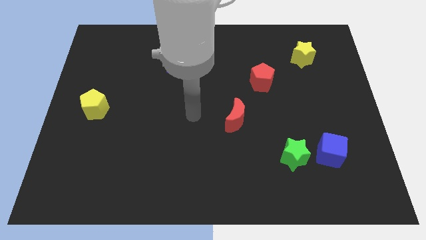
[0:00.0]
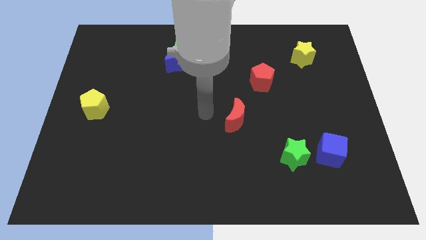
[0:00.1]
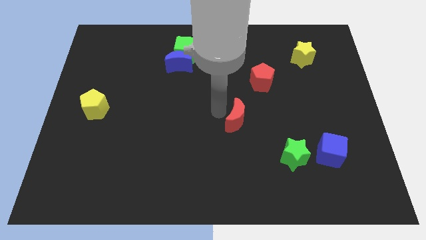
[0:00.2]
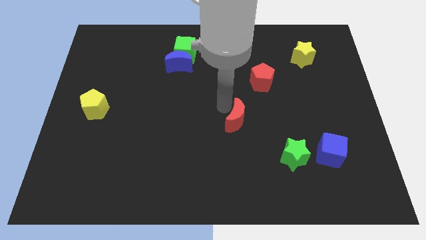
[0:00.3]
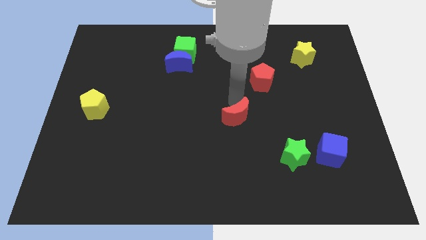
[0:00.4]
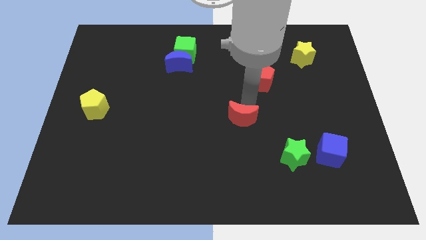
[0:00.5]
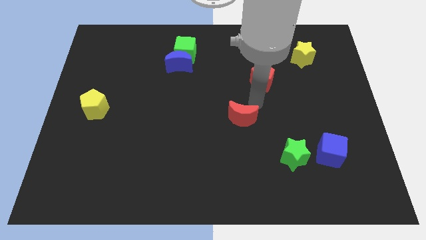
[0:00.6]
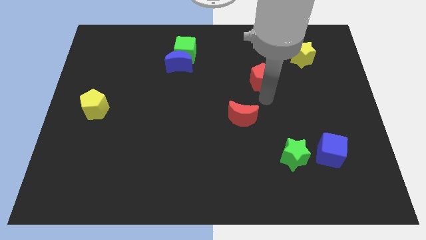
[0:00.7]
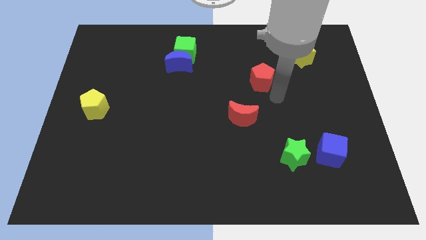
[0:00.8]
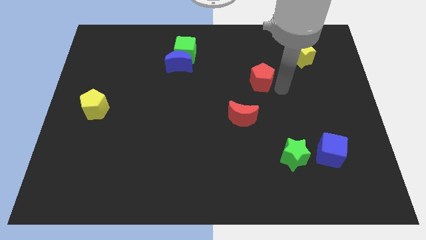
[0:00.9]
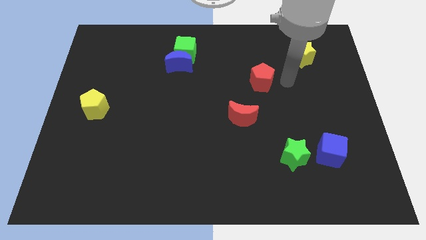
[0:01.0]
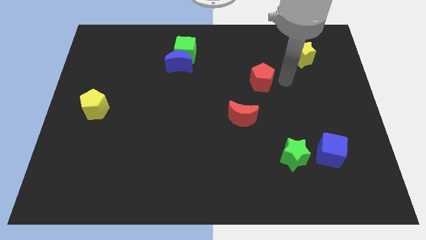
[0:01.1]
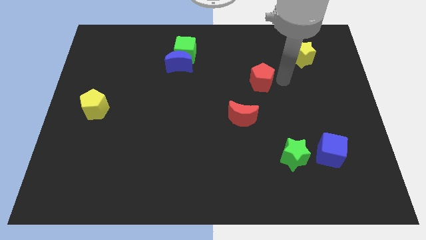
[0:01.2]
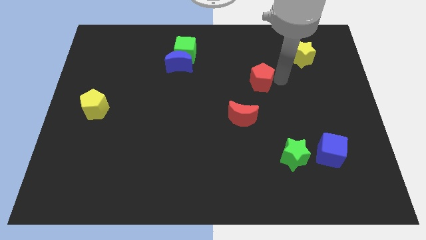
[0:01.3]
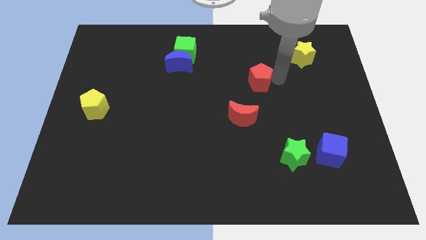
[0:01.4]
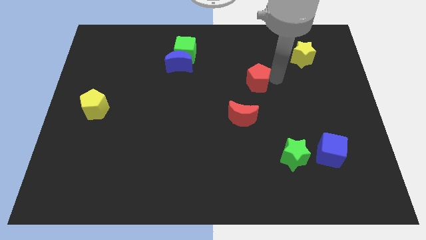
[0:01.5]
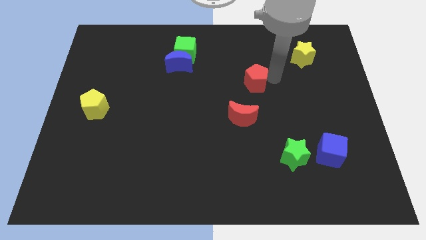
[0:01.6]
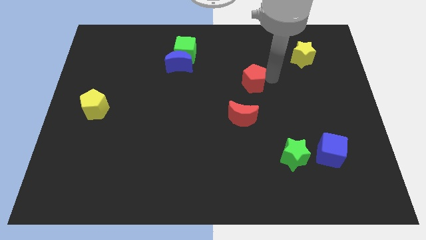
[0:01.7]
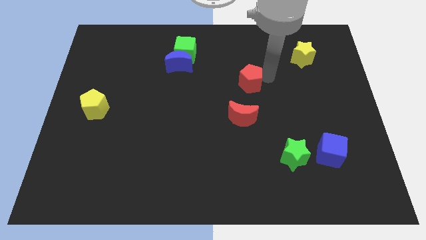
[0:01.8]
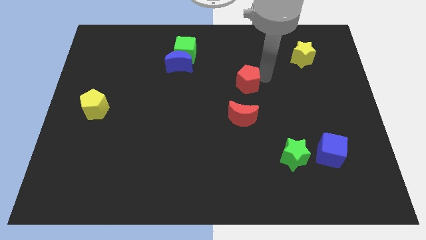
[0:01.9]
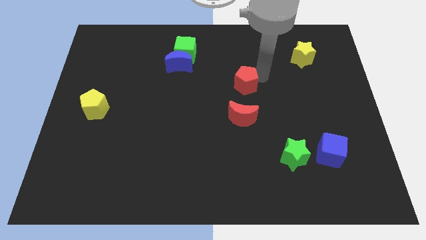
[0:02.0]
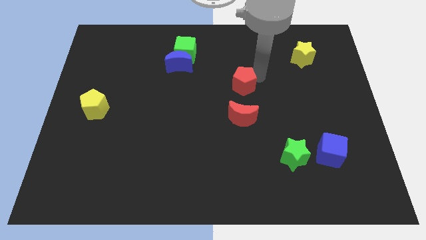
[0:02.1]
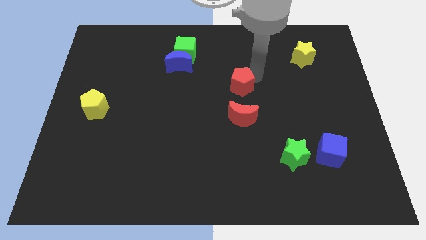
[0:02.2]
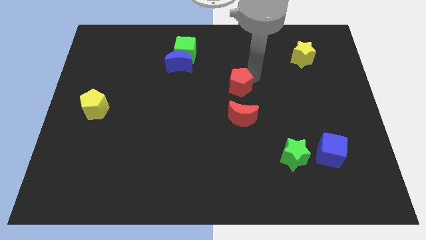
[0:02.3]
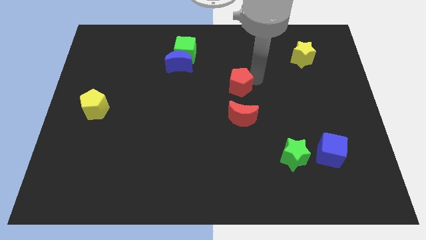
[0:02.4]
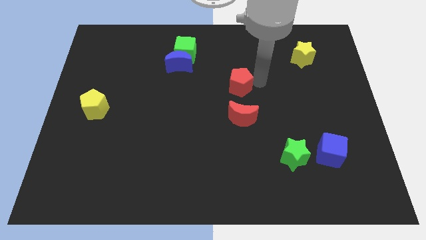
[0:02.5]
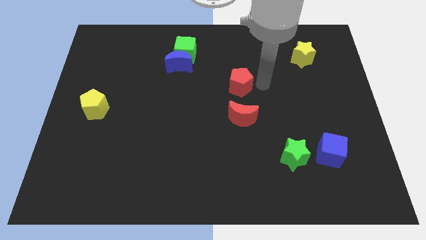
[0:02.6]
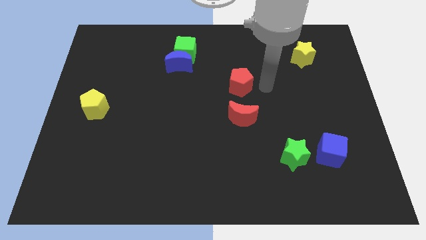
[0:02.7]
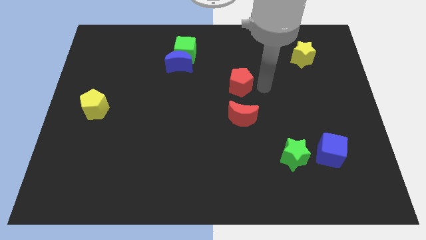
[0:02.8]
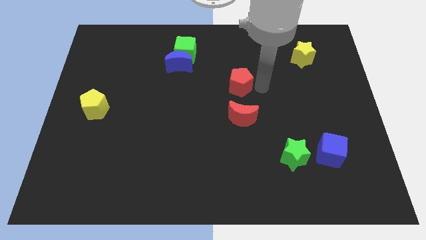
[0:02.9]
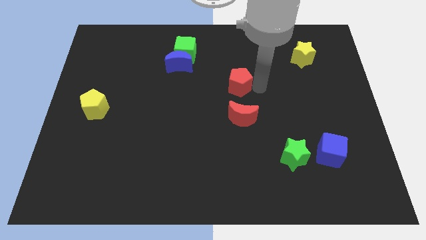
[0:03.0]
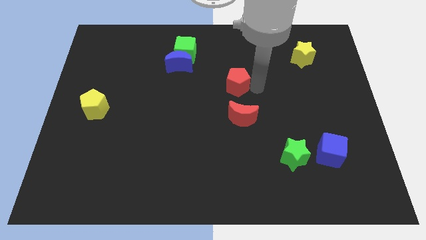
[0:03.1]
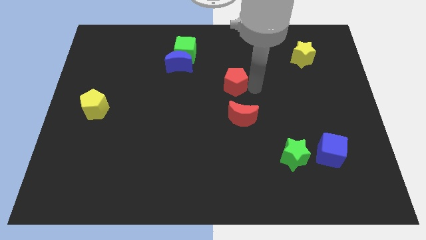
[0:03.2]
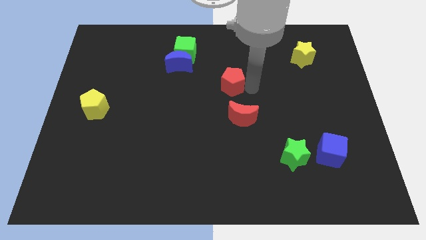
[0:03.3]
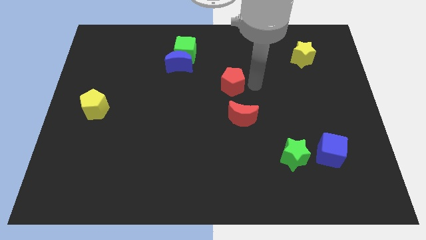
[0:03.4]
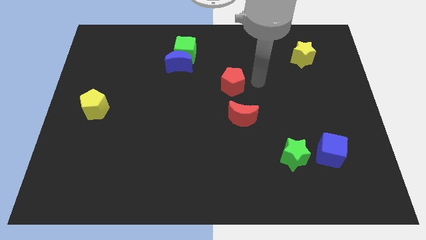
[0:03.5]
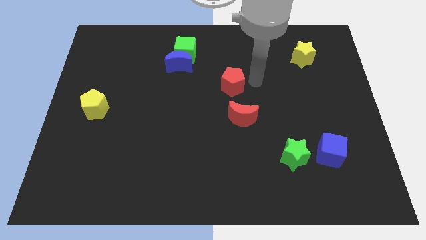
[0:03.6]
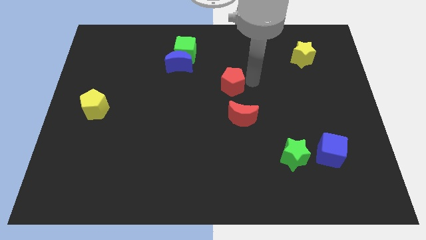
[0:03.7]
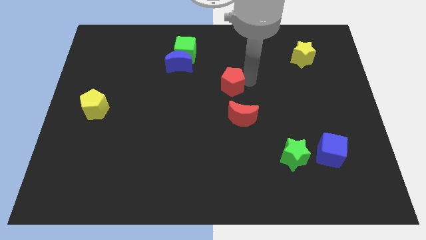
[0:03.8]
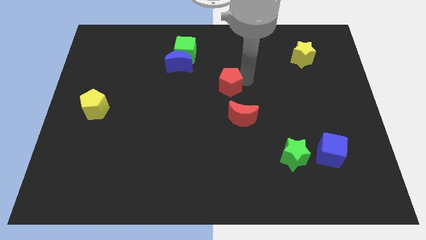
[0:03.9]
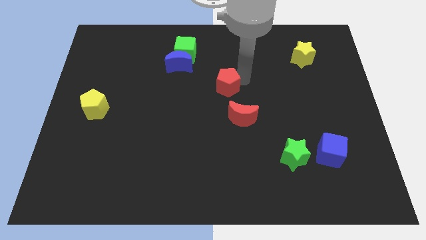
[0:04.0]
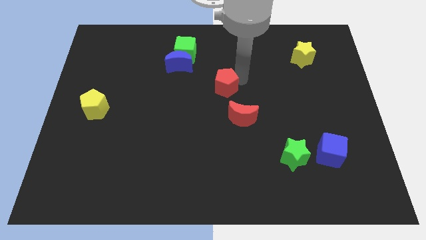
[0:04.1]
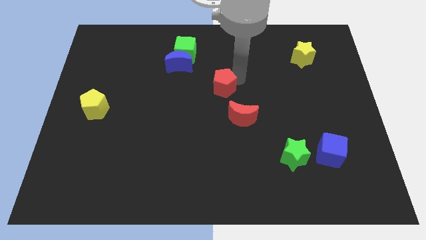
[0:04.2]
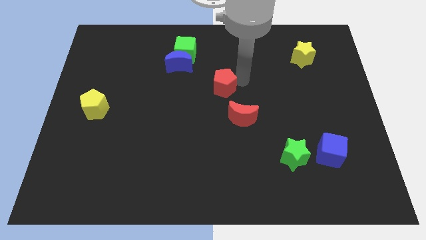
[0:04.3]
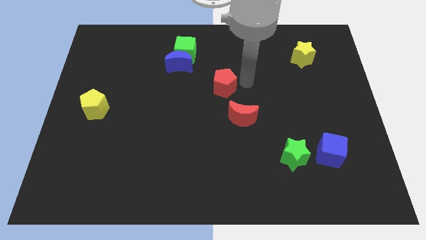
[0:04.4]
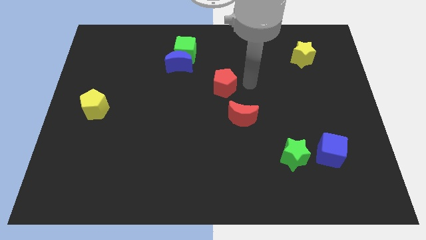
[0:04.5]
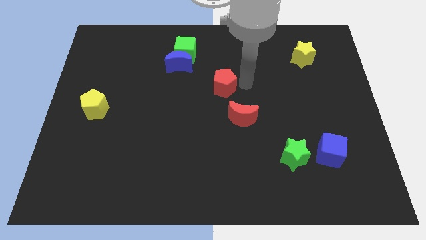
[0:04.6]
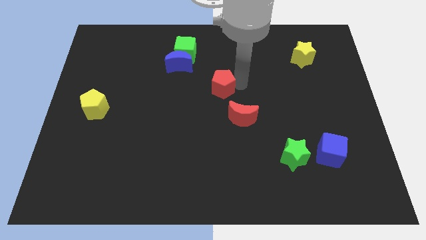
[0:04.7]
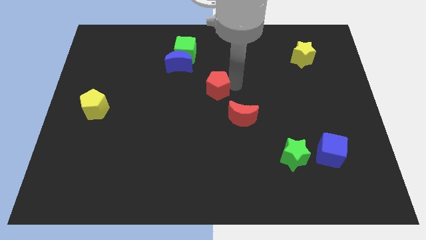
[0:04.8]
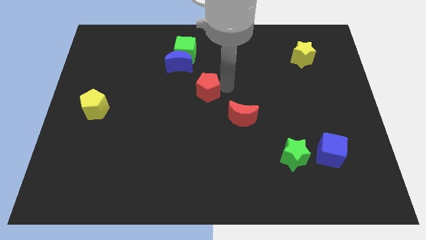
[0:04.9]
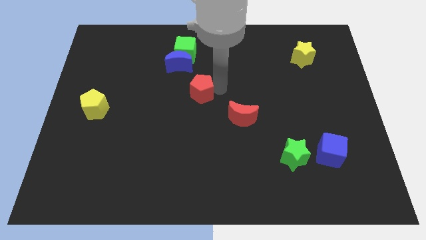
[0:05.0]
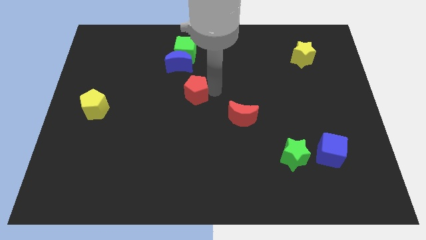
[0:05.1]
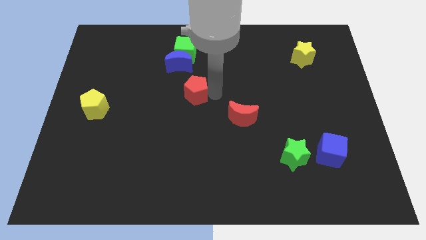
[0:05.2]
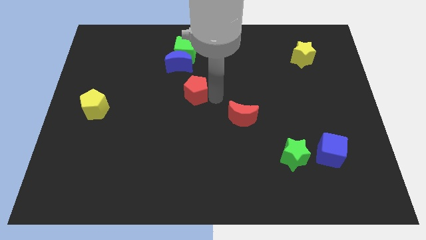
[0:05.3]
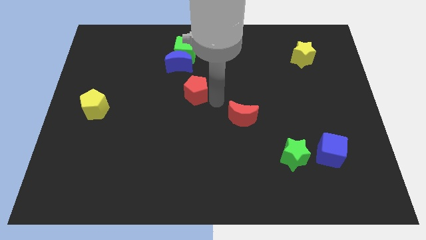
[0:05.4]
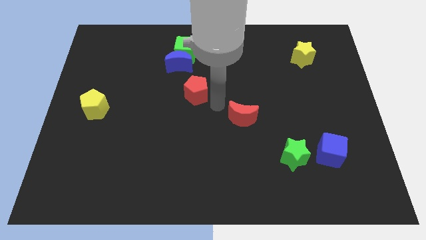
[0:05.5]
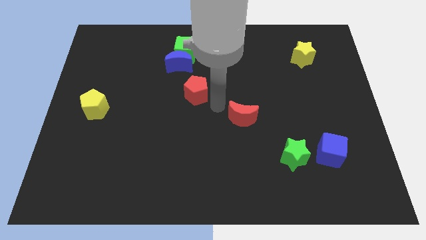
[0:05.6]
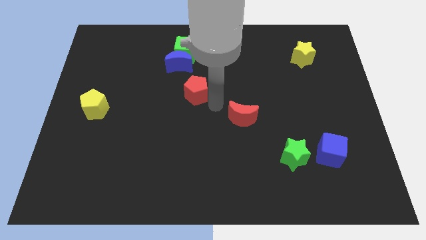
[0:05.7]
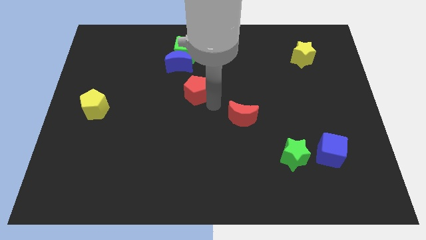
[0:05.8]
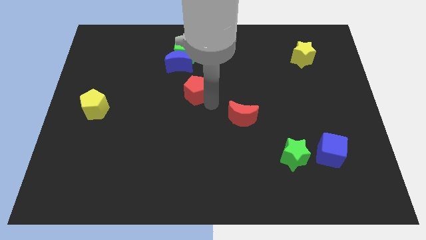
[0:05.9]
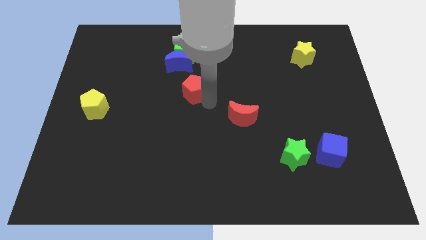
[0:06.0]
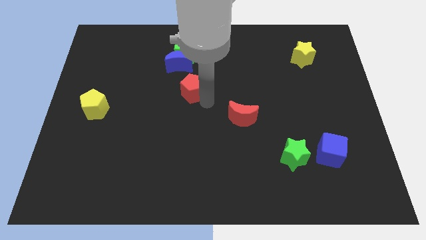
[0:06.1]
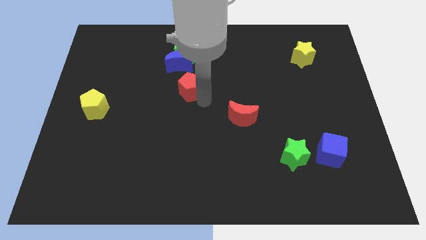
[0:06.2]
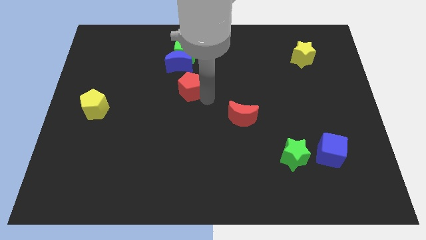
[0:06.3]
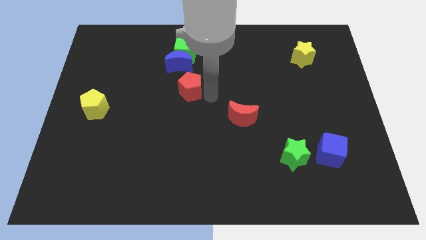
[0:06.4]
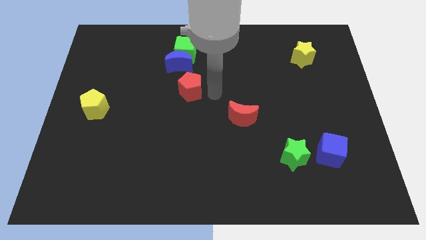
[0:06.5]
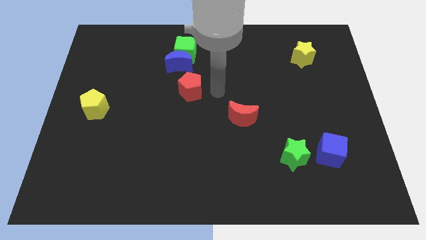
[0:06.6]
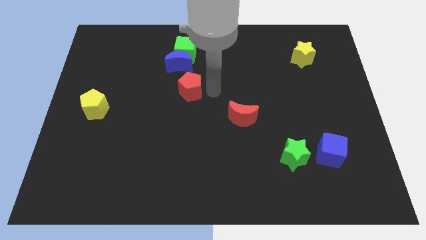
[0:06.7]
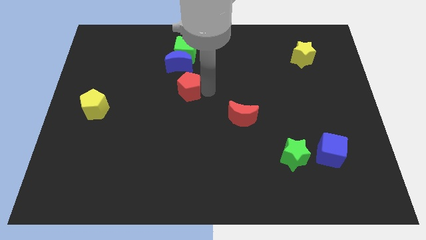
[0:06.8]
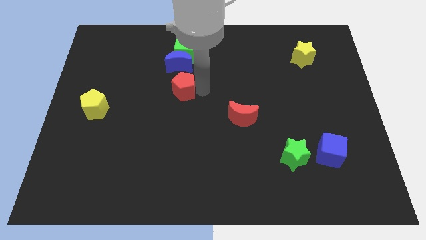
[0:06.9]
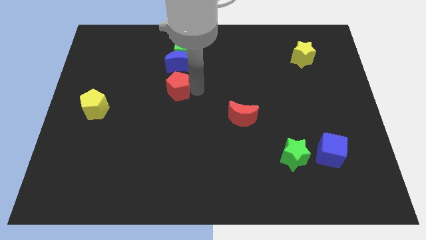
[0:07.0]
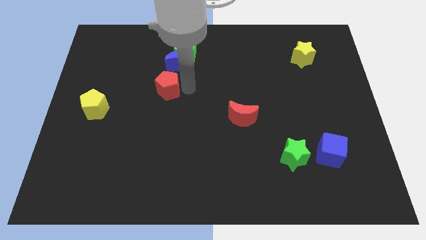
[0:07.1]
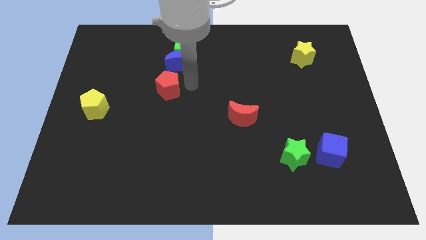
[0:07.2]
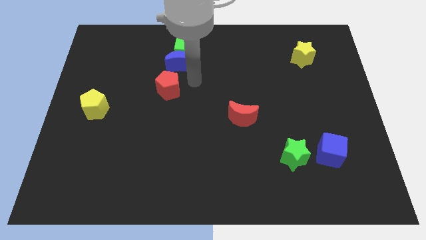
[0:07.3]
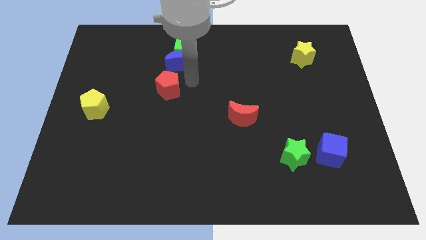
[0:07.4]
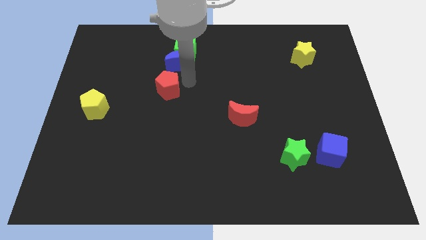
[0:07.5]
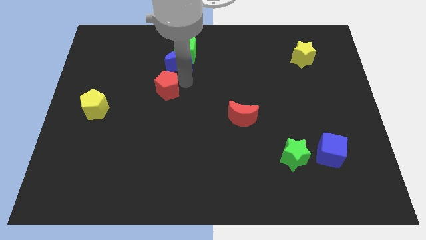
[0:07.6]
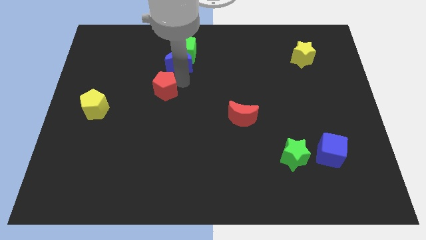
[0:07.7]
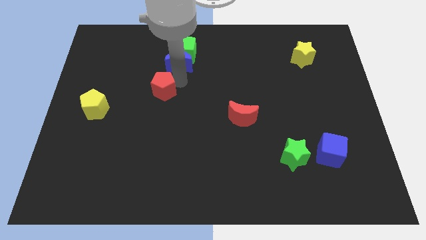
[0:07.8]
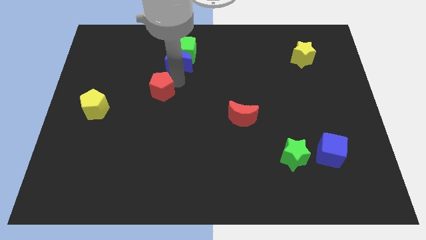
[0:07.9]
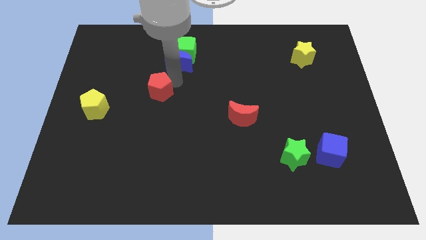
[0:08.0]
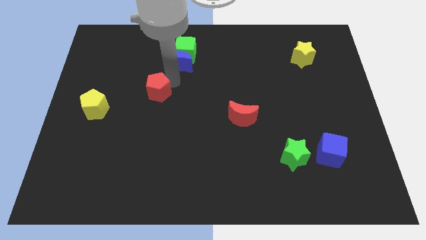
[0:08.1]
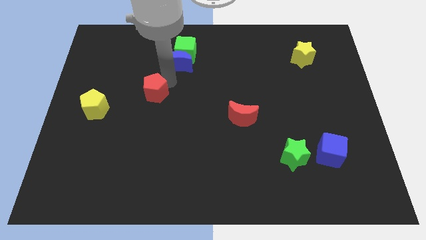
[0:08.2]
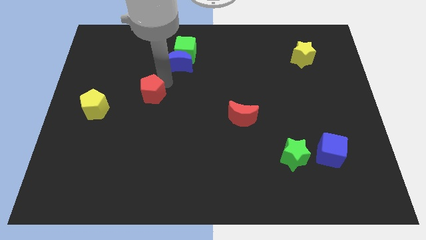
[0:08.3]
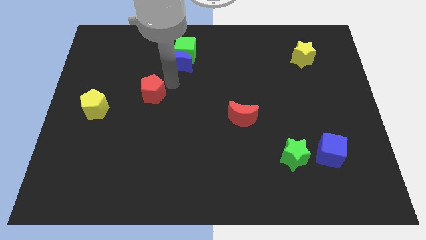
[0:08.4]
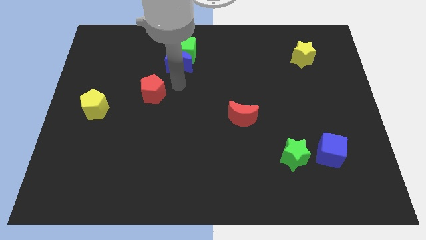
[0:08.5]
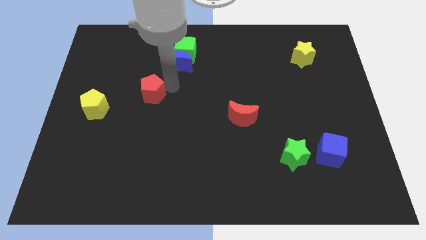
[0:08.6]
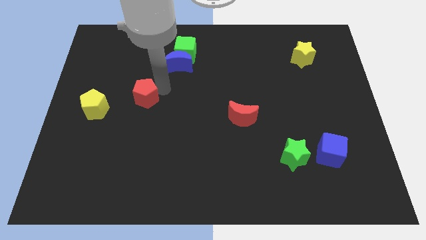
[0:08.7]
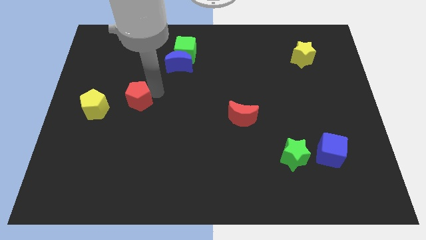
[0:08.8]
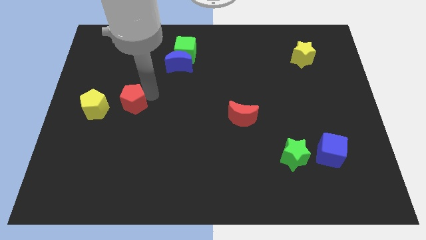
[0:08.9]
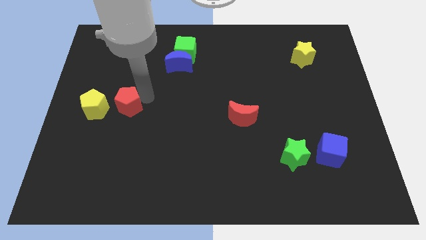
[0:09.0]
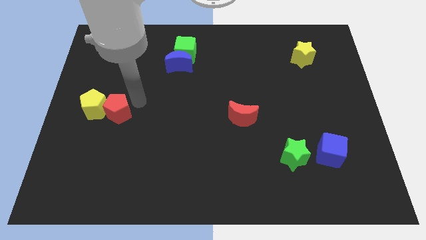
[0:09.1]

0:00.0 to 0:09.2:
move the red pentagon next to the yellow pentagon
